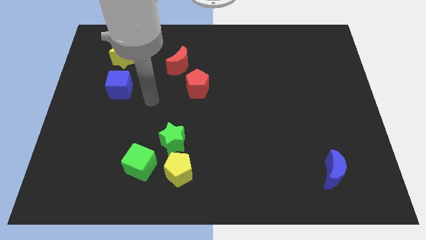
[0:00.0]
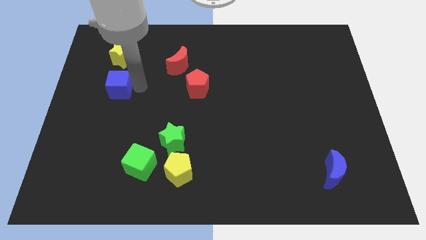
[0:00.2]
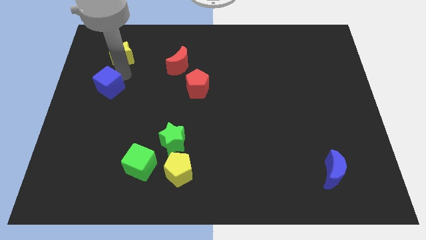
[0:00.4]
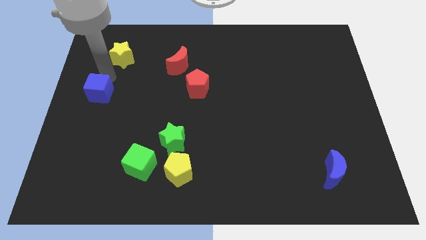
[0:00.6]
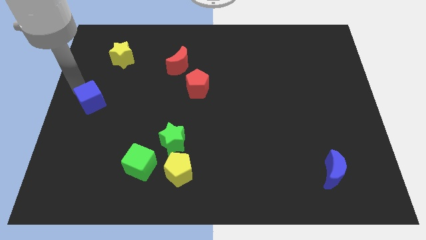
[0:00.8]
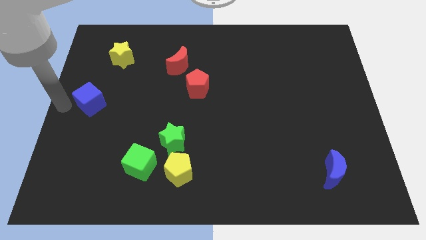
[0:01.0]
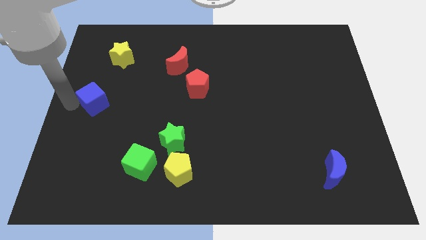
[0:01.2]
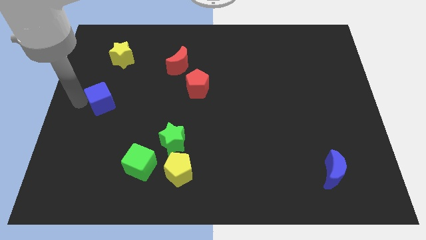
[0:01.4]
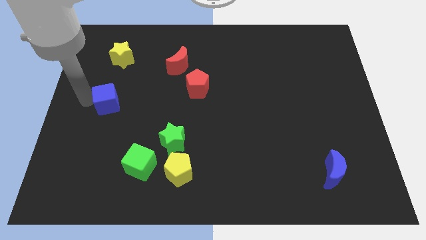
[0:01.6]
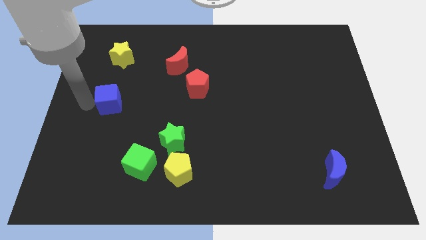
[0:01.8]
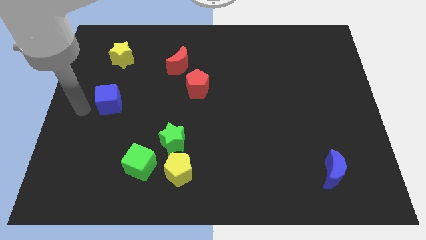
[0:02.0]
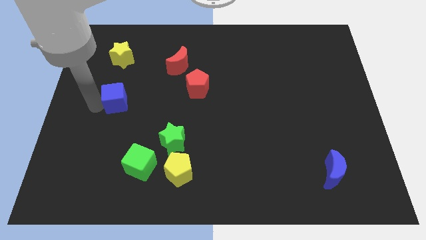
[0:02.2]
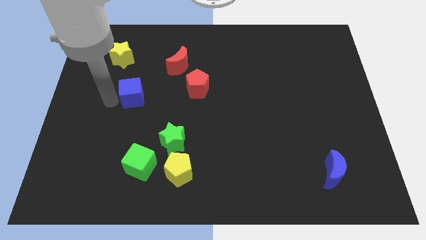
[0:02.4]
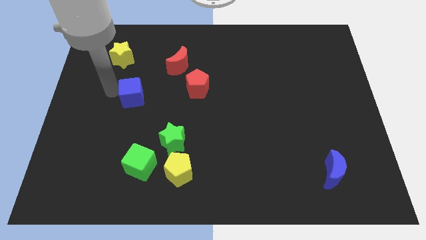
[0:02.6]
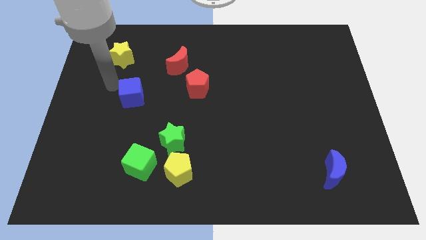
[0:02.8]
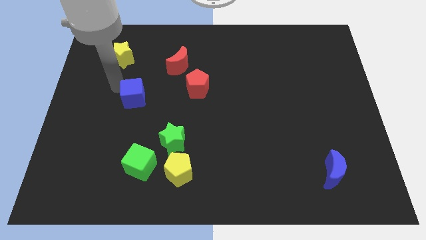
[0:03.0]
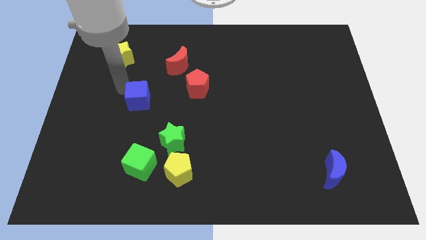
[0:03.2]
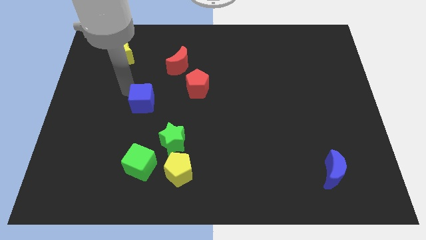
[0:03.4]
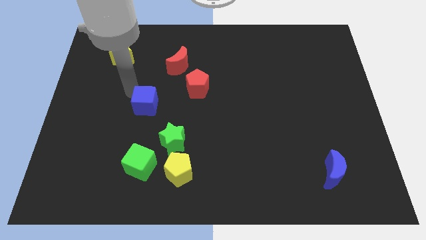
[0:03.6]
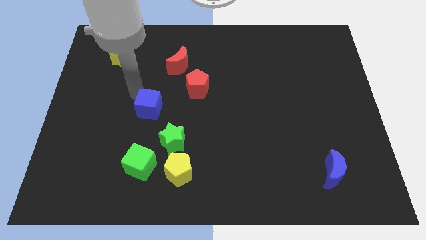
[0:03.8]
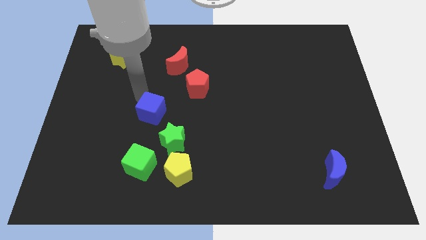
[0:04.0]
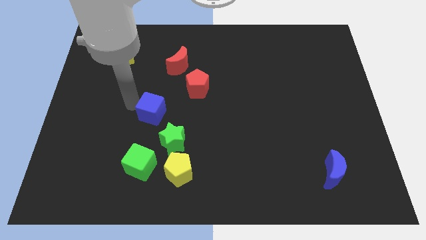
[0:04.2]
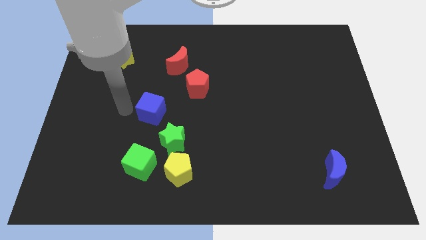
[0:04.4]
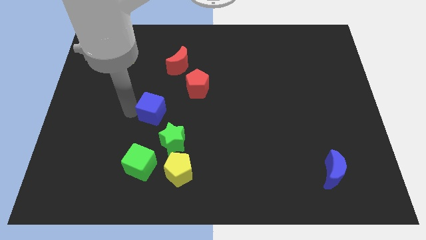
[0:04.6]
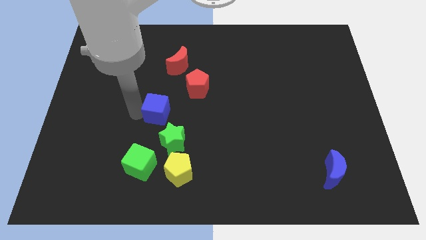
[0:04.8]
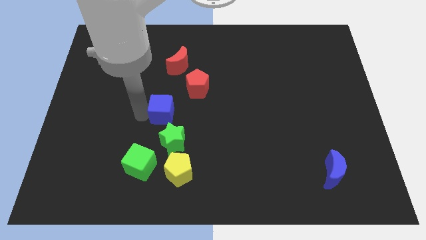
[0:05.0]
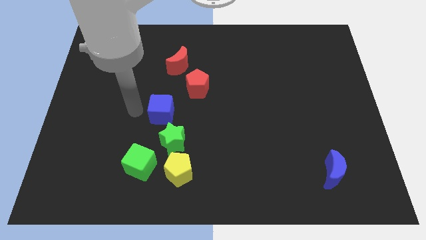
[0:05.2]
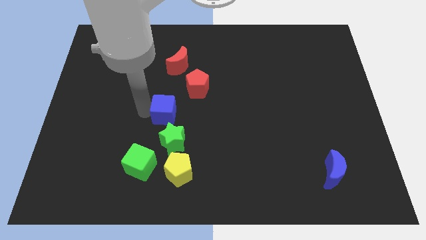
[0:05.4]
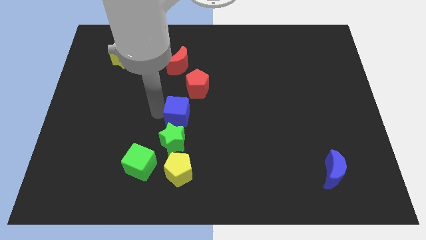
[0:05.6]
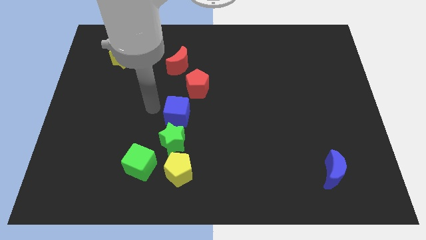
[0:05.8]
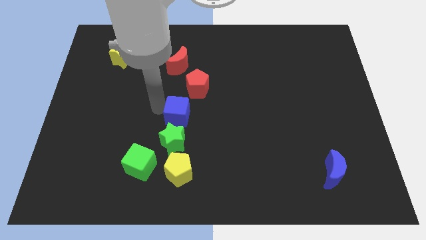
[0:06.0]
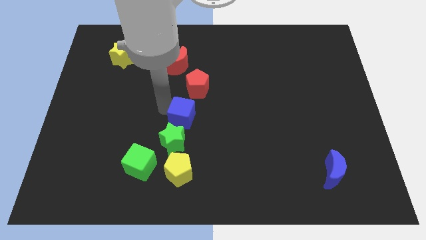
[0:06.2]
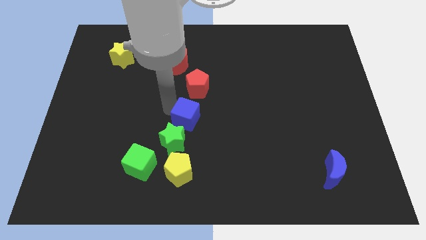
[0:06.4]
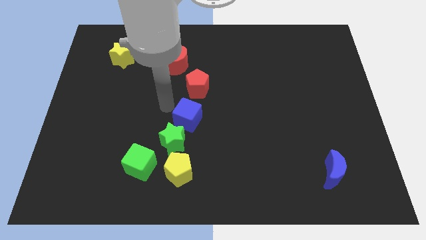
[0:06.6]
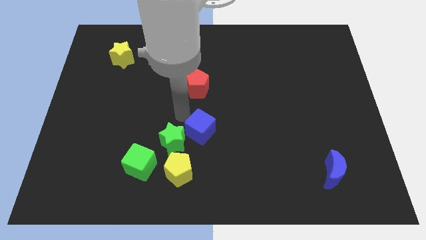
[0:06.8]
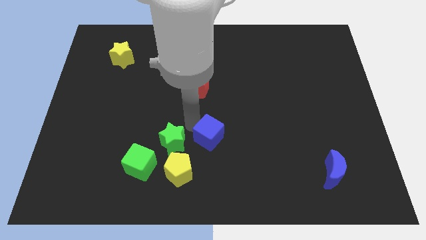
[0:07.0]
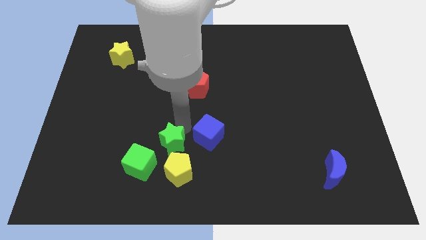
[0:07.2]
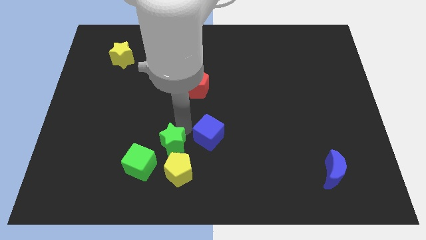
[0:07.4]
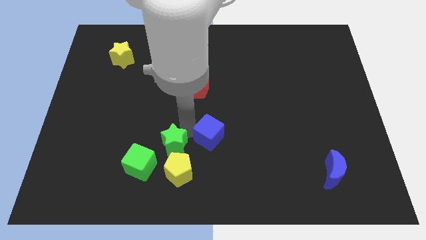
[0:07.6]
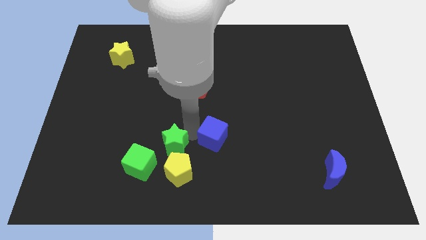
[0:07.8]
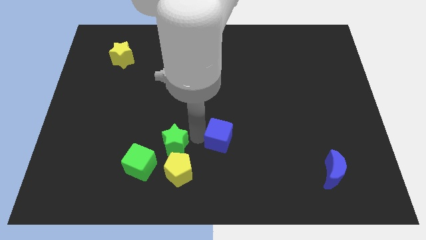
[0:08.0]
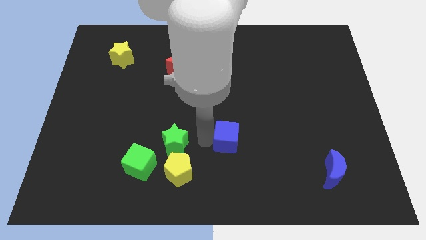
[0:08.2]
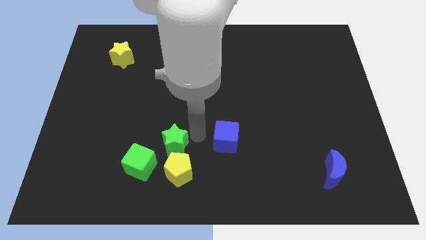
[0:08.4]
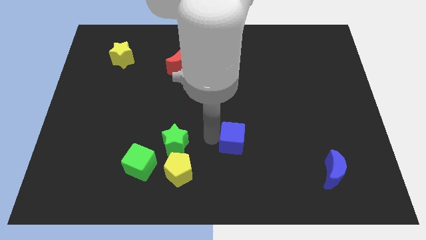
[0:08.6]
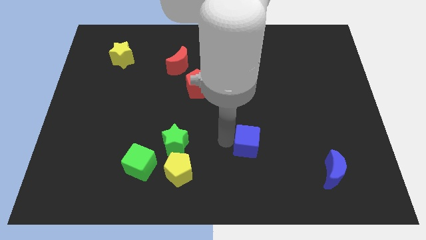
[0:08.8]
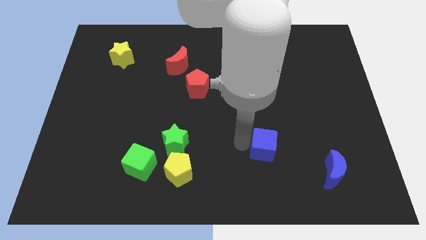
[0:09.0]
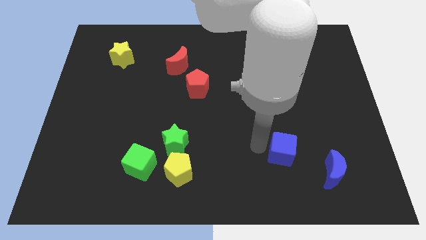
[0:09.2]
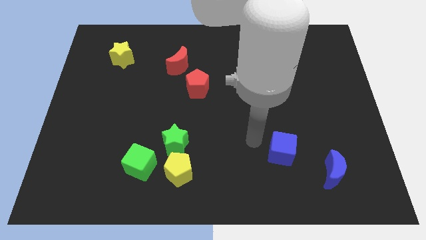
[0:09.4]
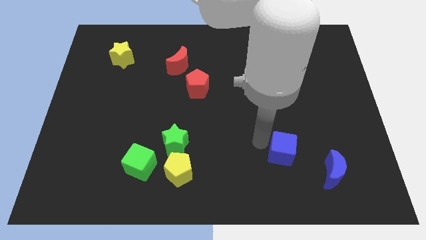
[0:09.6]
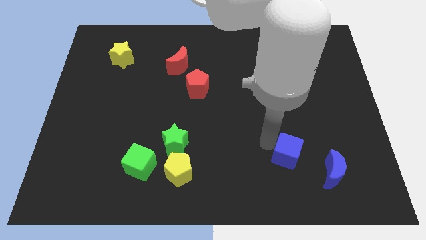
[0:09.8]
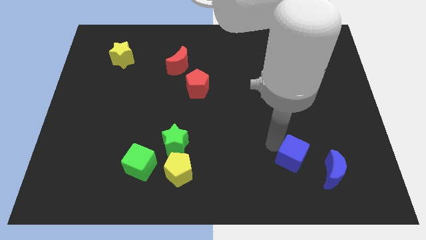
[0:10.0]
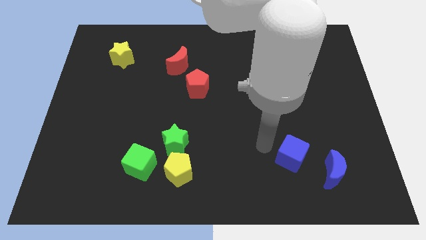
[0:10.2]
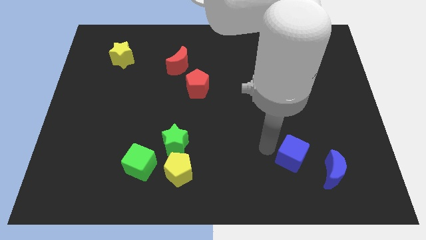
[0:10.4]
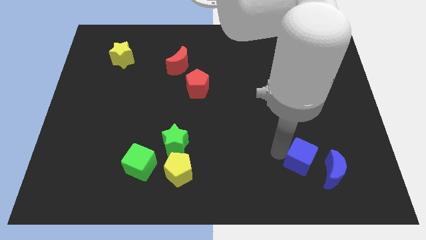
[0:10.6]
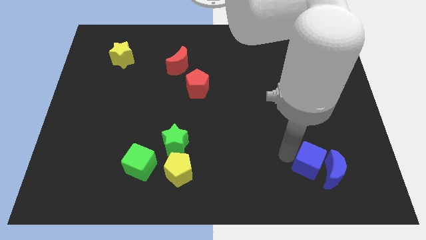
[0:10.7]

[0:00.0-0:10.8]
push the blue cube next to the blue moon

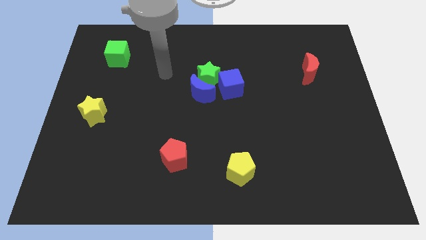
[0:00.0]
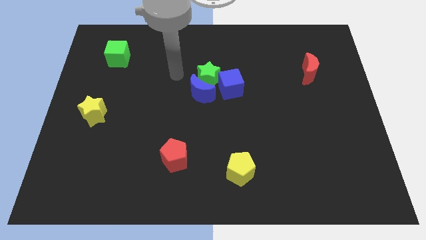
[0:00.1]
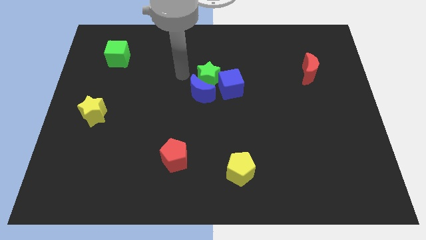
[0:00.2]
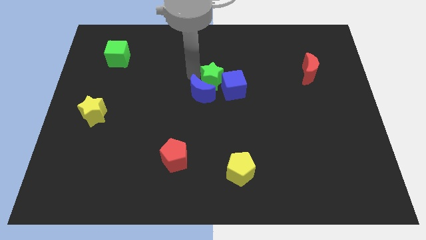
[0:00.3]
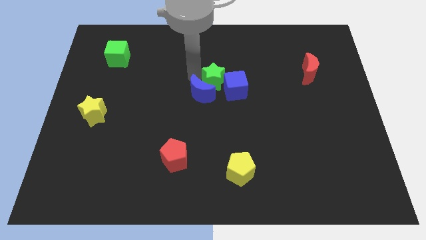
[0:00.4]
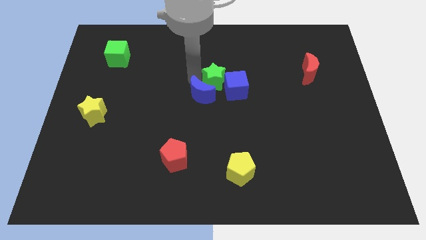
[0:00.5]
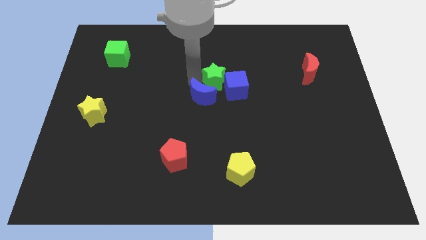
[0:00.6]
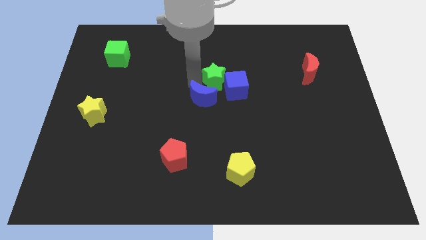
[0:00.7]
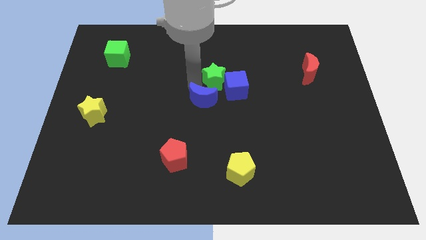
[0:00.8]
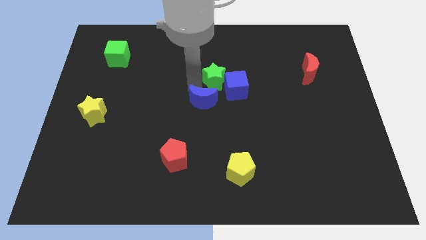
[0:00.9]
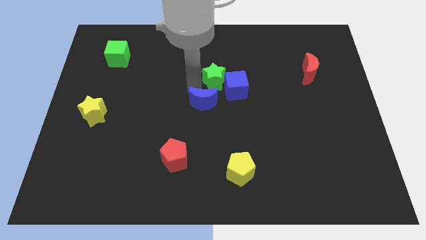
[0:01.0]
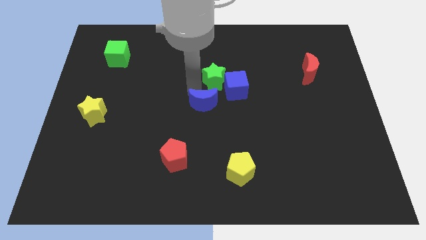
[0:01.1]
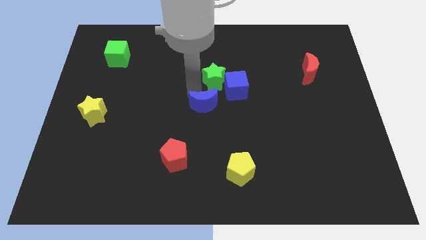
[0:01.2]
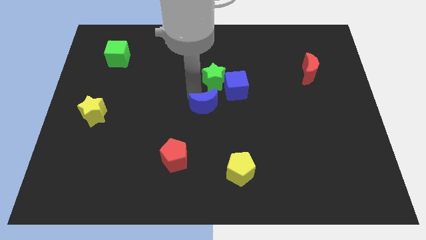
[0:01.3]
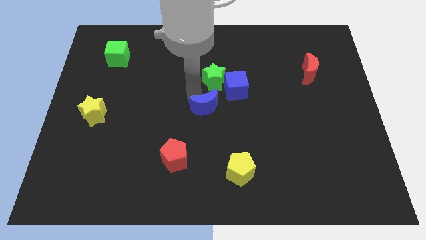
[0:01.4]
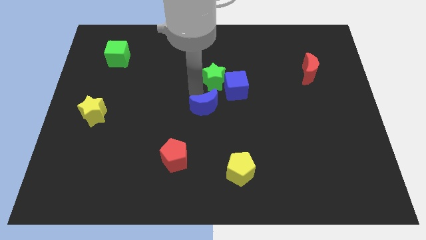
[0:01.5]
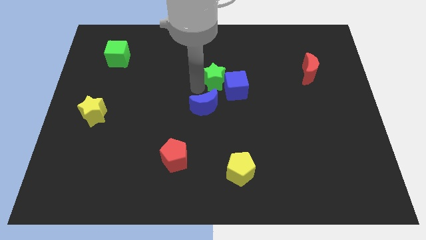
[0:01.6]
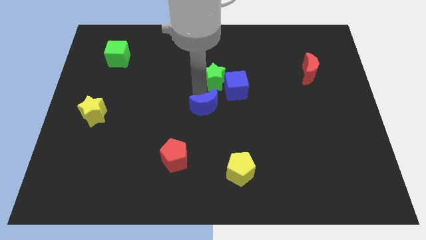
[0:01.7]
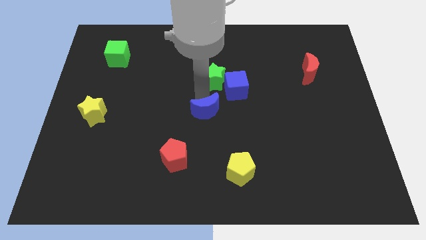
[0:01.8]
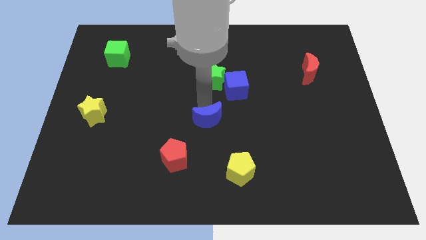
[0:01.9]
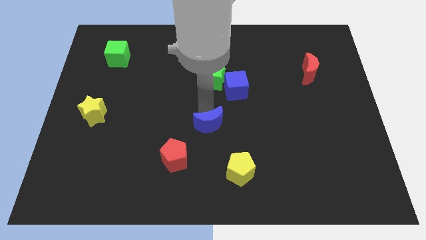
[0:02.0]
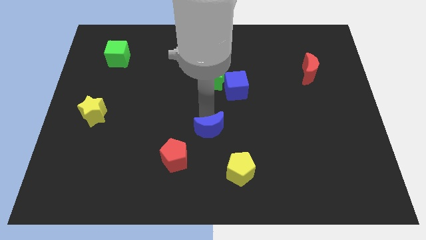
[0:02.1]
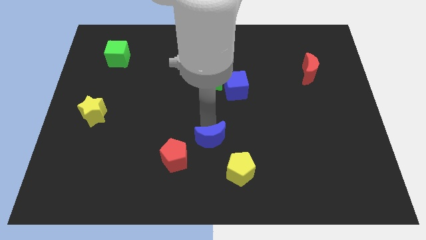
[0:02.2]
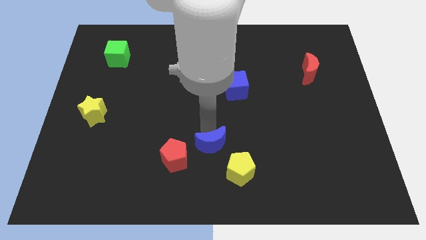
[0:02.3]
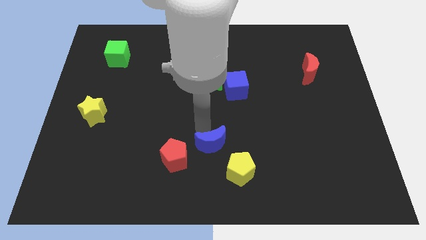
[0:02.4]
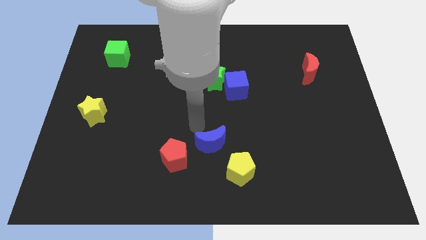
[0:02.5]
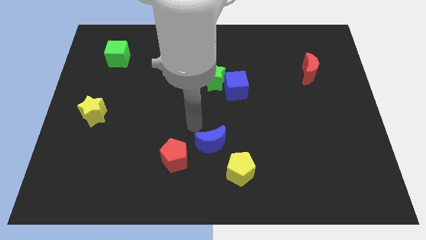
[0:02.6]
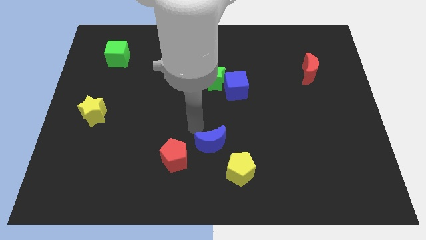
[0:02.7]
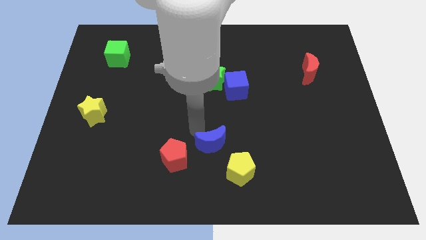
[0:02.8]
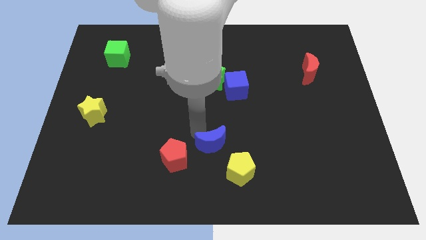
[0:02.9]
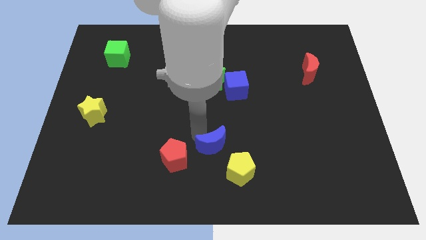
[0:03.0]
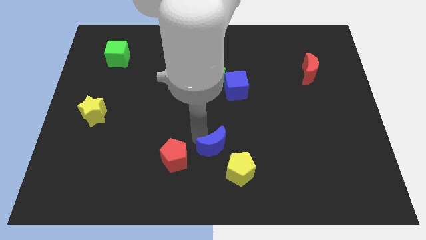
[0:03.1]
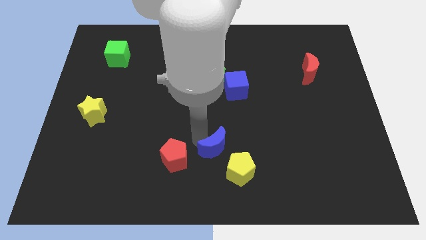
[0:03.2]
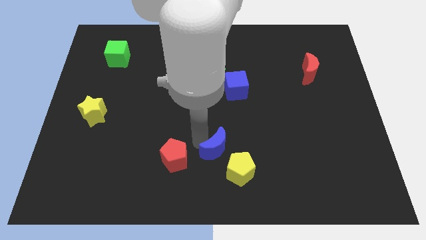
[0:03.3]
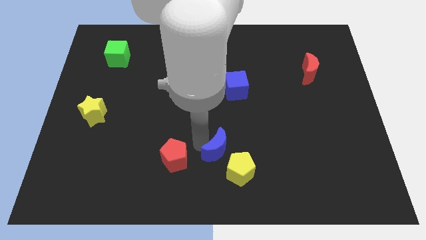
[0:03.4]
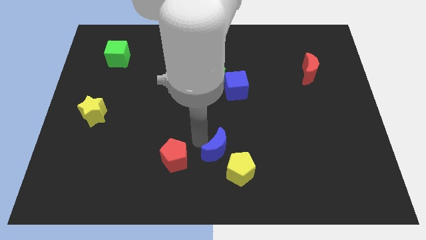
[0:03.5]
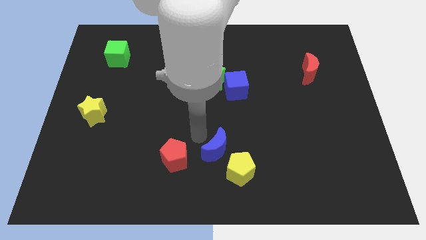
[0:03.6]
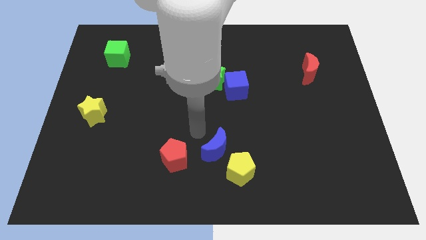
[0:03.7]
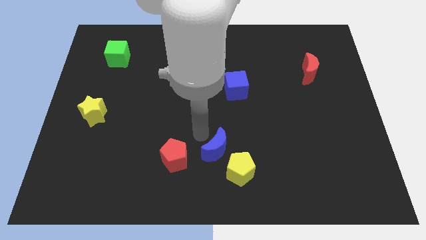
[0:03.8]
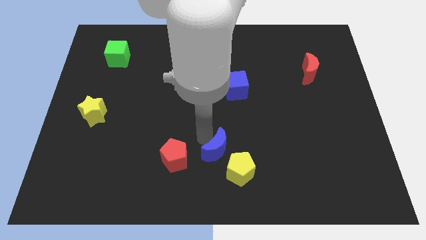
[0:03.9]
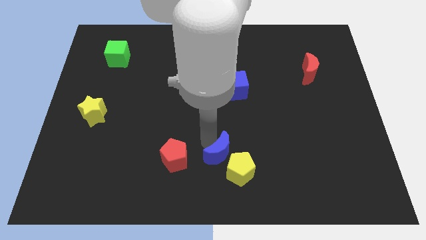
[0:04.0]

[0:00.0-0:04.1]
push the blue moon close to the yellow pentagon
